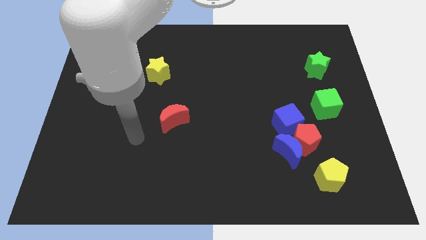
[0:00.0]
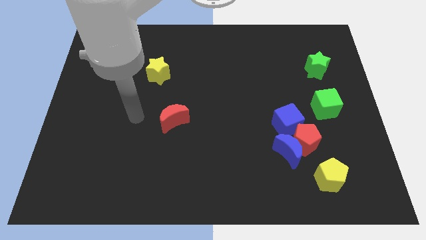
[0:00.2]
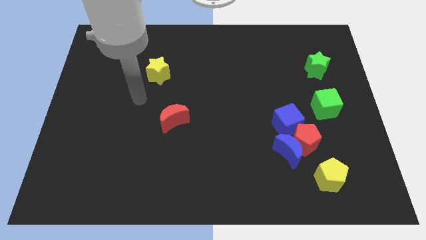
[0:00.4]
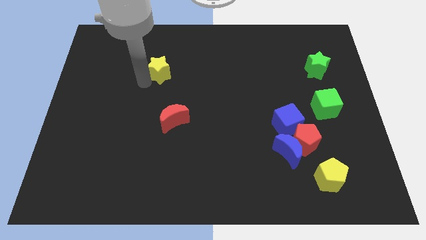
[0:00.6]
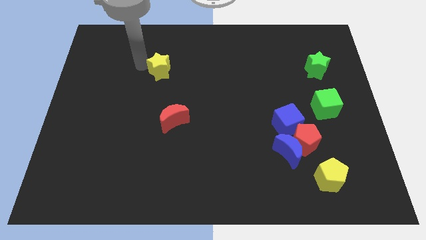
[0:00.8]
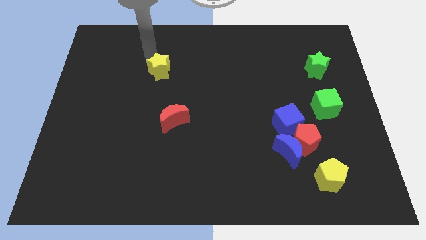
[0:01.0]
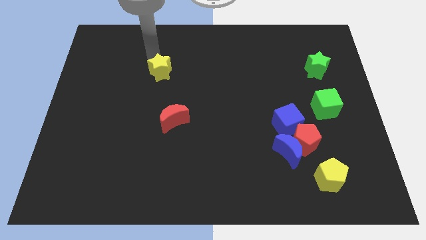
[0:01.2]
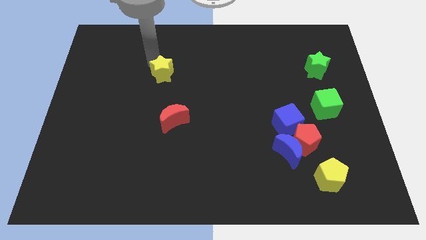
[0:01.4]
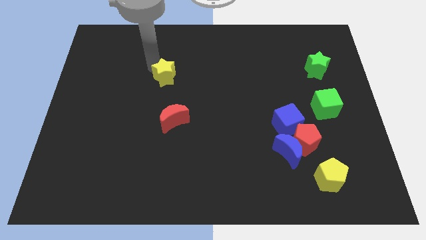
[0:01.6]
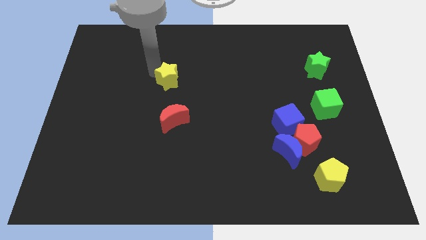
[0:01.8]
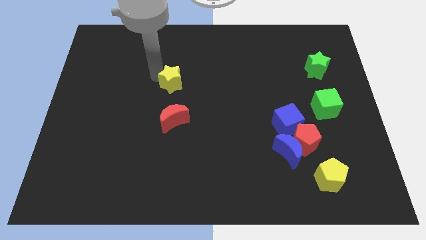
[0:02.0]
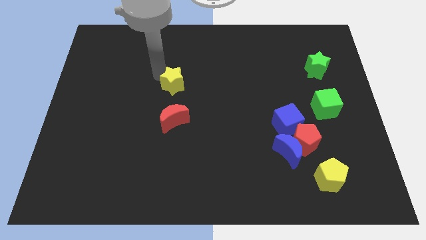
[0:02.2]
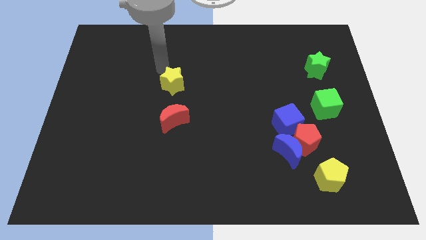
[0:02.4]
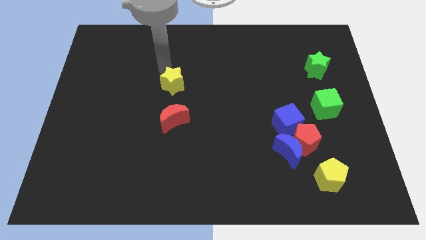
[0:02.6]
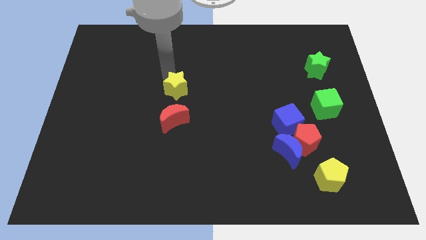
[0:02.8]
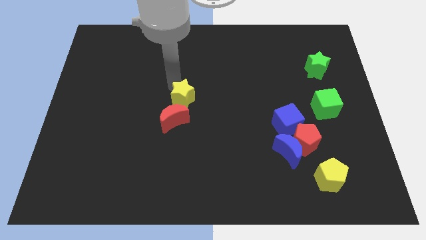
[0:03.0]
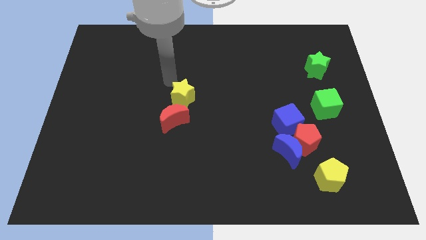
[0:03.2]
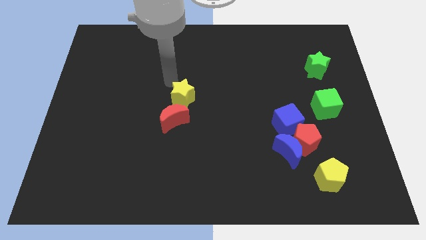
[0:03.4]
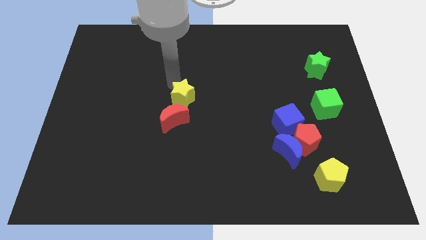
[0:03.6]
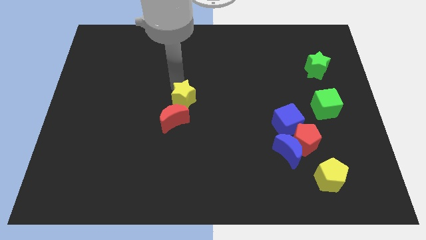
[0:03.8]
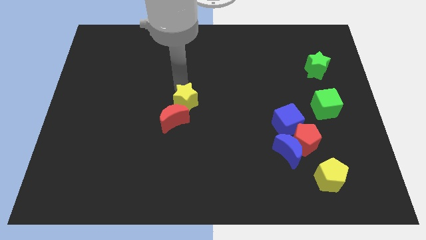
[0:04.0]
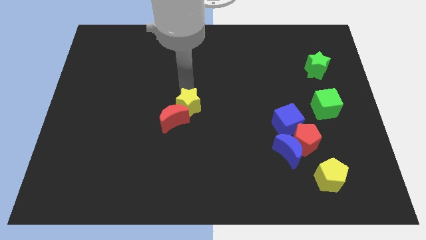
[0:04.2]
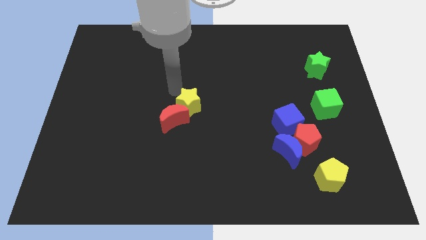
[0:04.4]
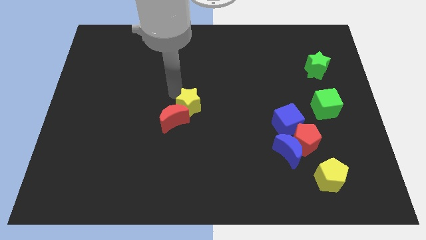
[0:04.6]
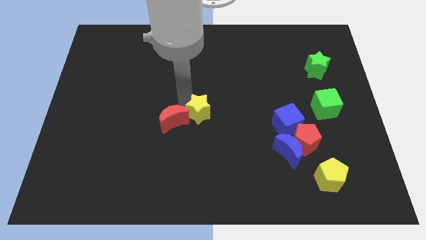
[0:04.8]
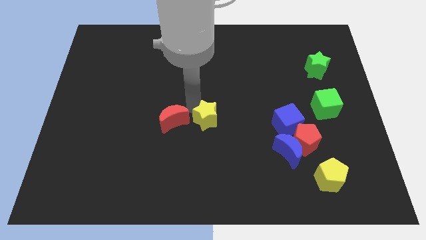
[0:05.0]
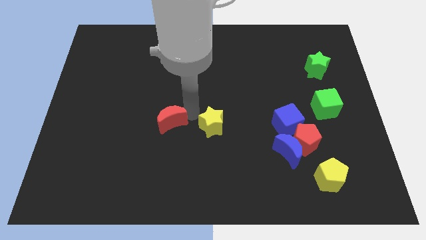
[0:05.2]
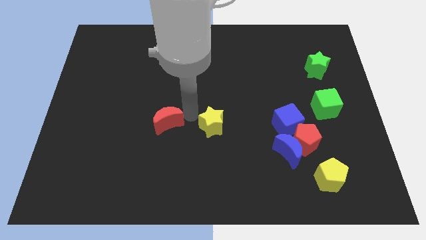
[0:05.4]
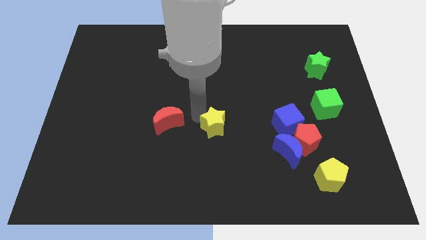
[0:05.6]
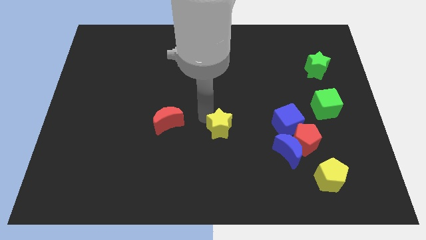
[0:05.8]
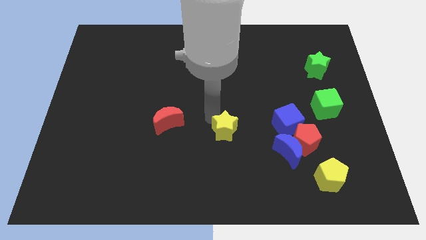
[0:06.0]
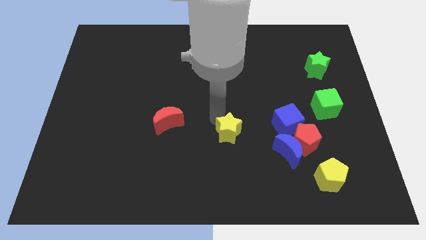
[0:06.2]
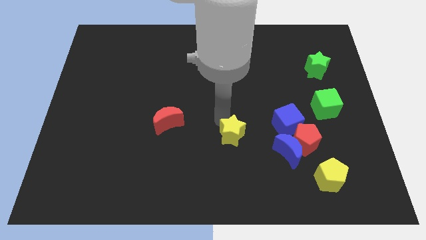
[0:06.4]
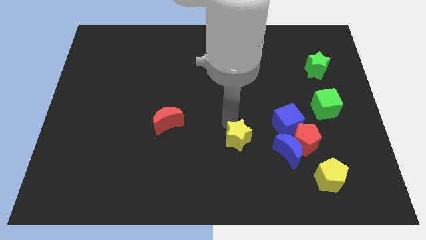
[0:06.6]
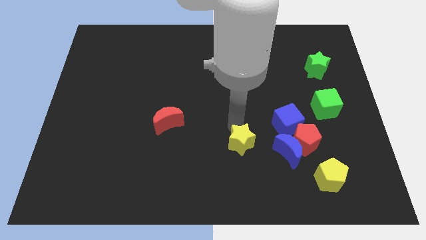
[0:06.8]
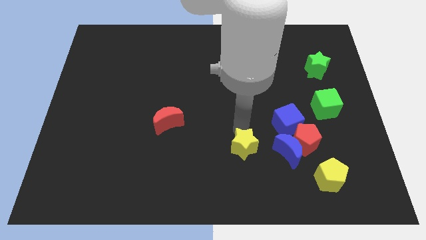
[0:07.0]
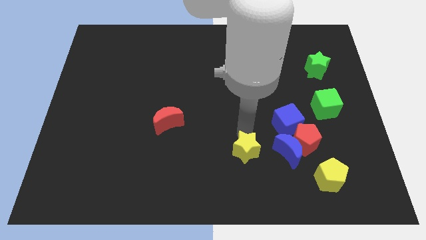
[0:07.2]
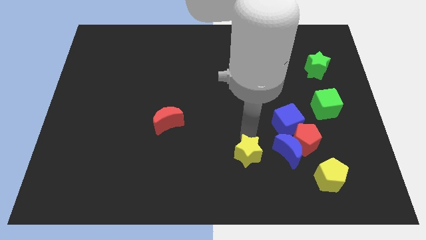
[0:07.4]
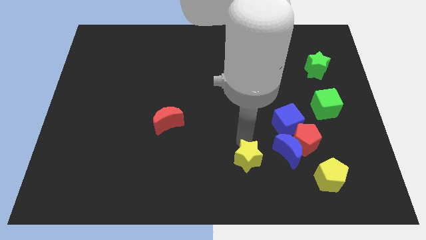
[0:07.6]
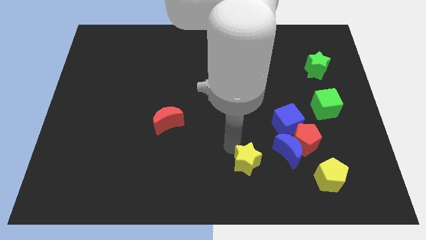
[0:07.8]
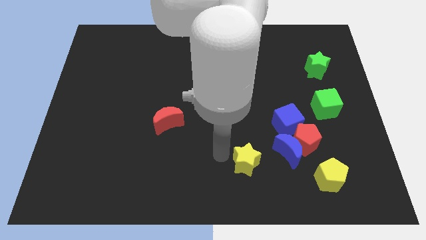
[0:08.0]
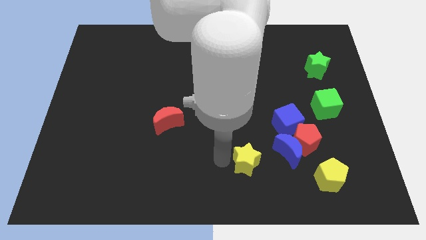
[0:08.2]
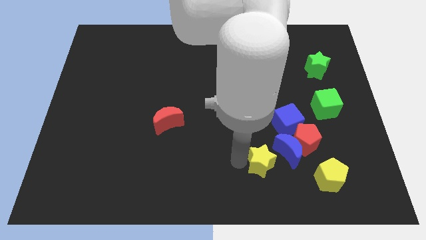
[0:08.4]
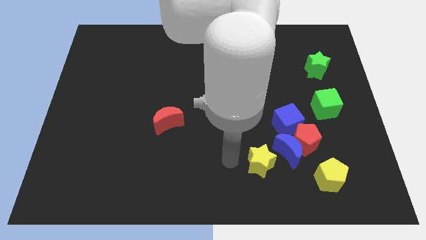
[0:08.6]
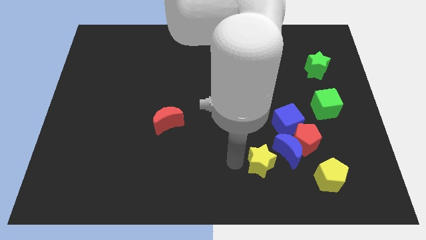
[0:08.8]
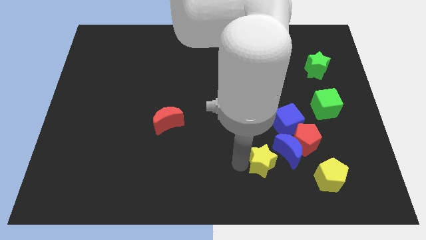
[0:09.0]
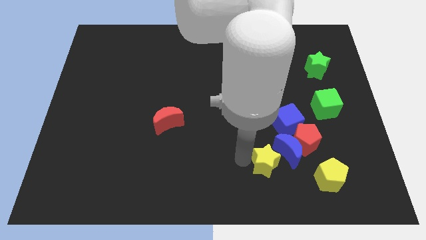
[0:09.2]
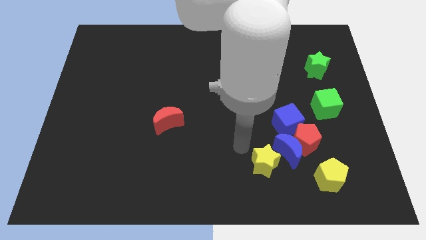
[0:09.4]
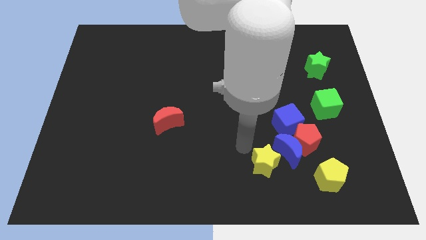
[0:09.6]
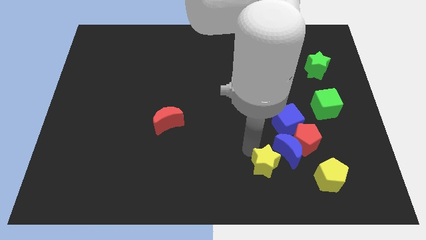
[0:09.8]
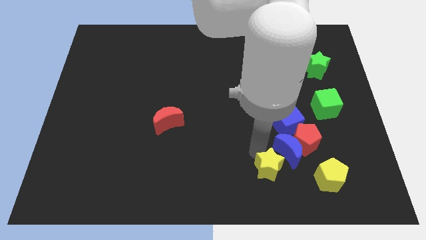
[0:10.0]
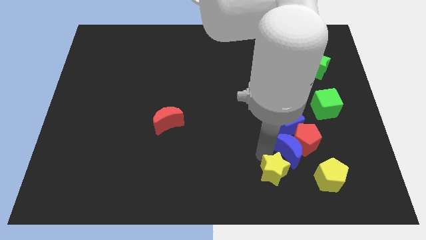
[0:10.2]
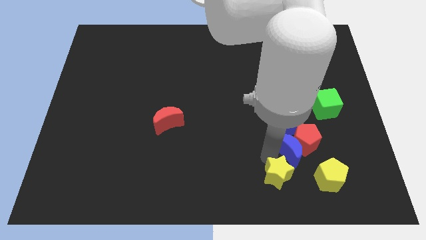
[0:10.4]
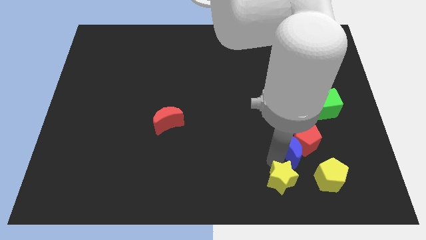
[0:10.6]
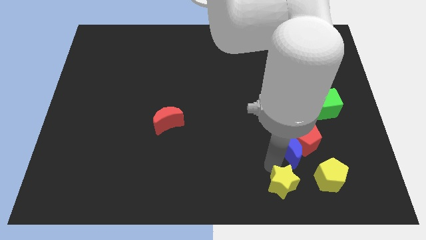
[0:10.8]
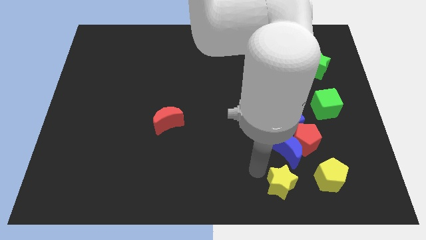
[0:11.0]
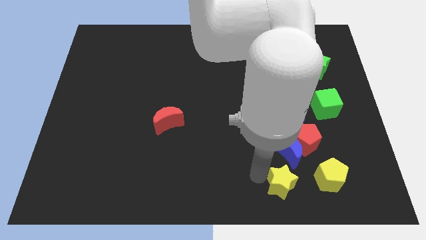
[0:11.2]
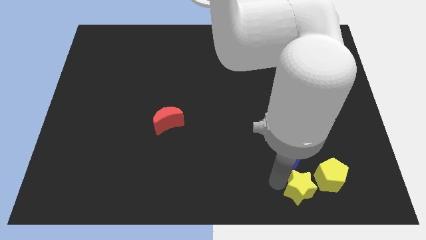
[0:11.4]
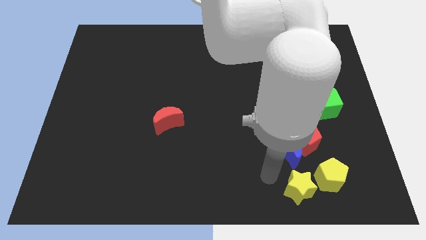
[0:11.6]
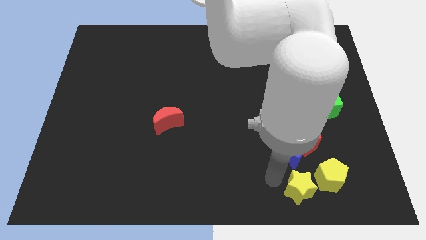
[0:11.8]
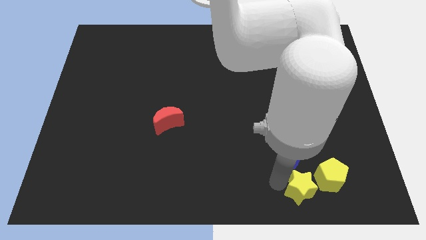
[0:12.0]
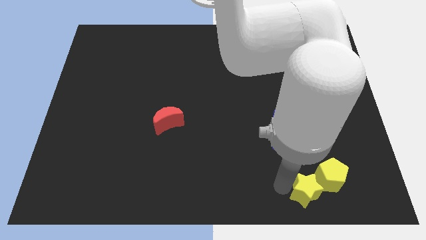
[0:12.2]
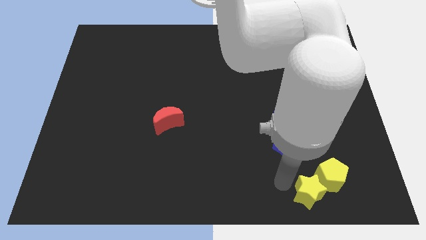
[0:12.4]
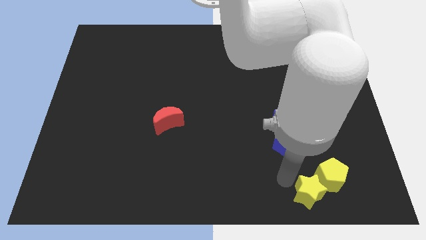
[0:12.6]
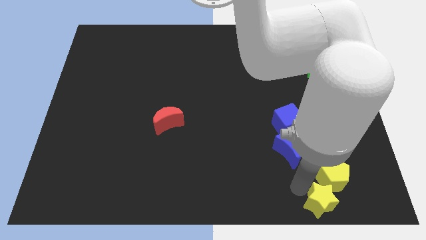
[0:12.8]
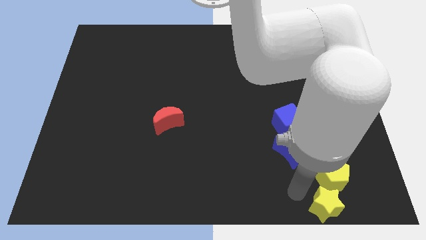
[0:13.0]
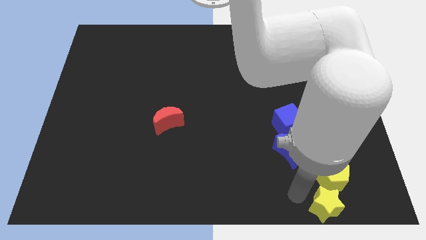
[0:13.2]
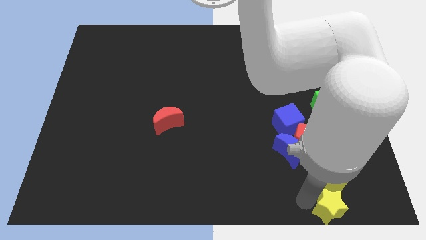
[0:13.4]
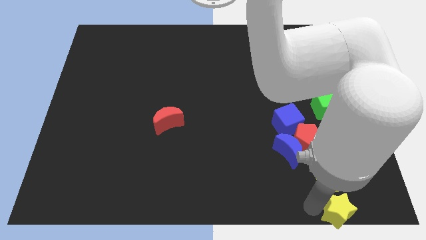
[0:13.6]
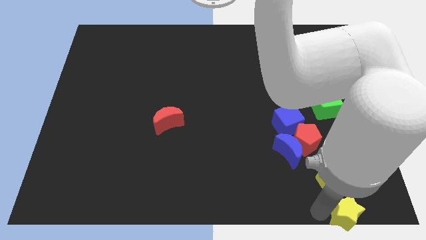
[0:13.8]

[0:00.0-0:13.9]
push the yellow star to the bottom right

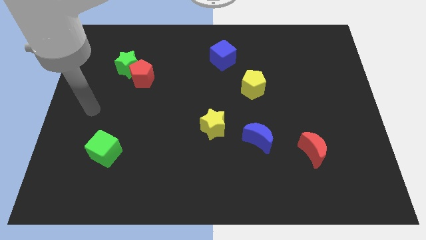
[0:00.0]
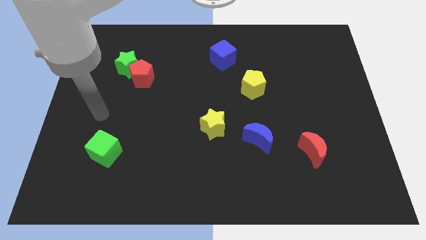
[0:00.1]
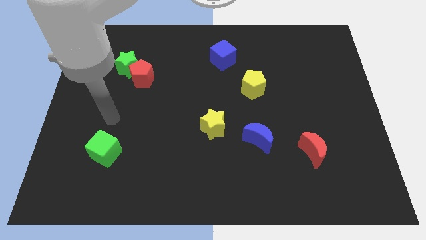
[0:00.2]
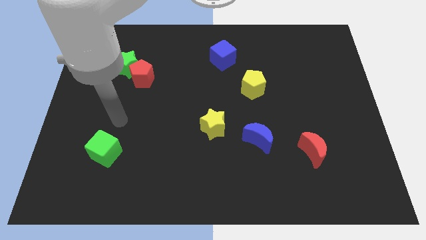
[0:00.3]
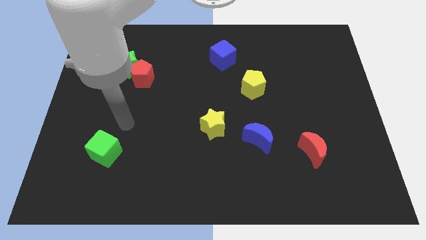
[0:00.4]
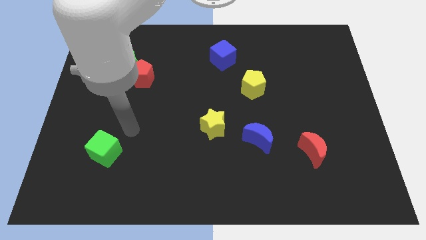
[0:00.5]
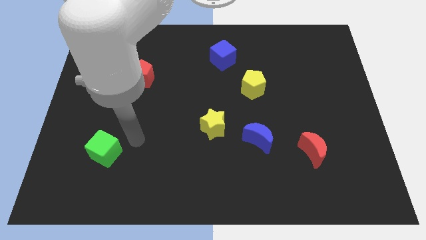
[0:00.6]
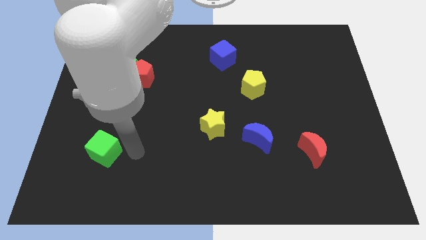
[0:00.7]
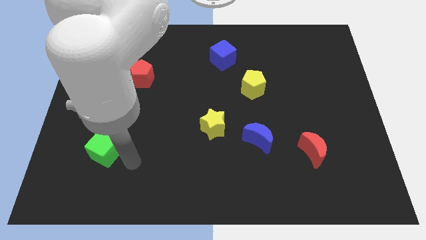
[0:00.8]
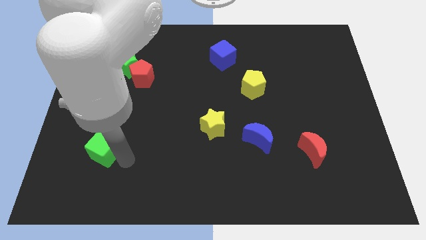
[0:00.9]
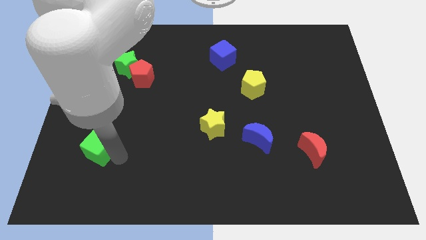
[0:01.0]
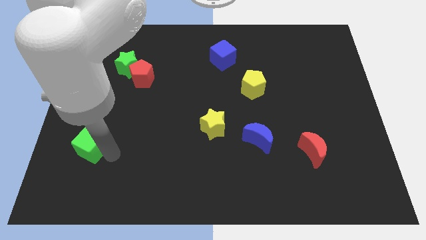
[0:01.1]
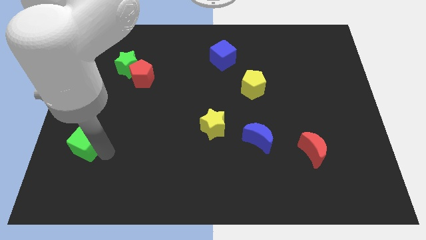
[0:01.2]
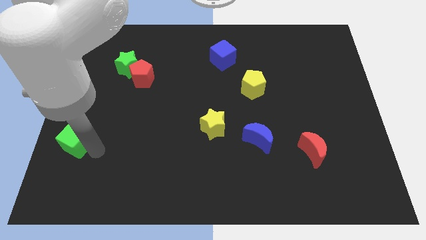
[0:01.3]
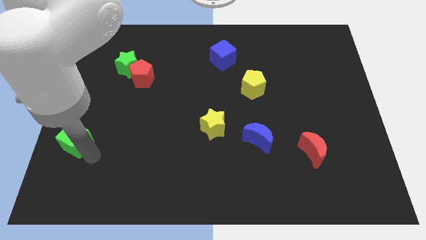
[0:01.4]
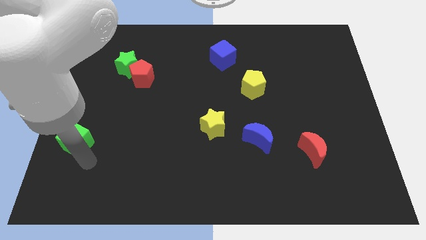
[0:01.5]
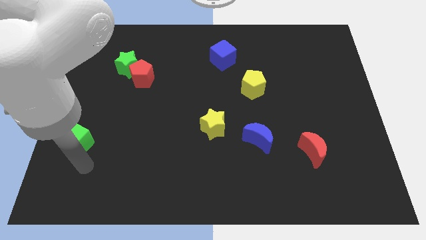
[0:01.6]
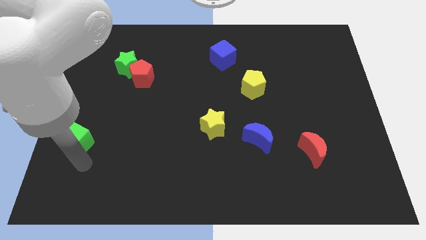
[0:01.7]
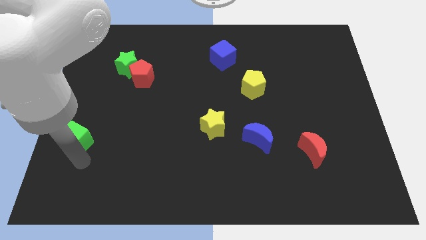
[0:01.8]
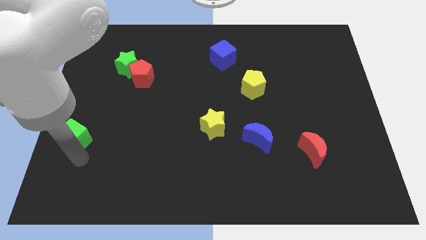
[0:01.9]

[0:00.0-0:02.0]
put the green cube to the left side
